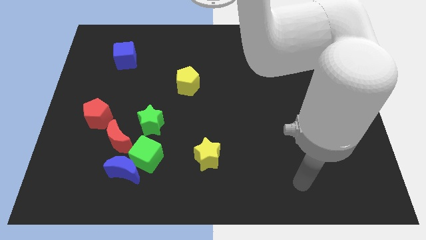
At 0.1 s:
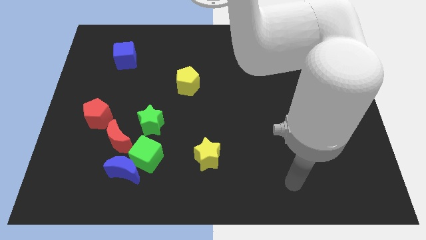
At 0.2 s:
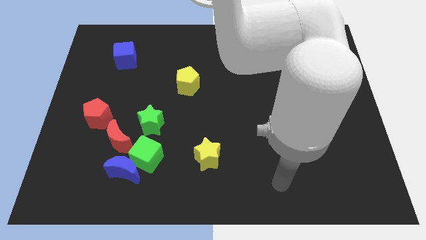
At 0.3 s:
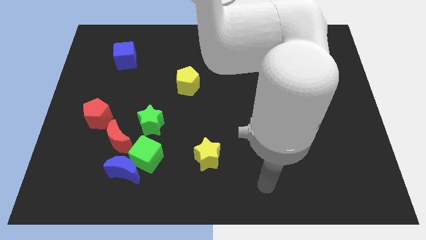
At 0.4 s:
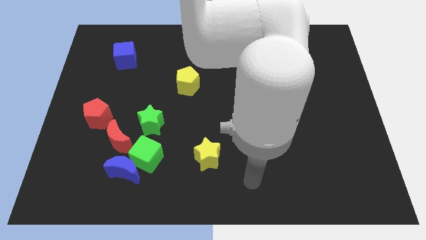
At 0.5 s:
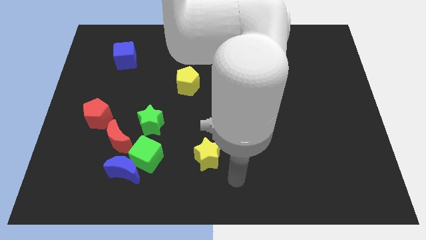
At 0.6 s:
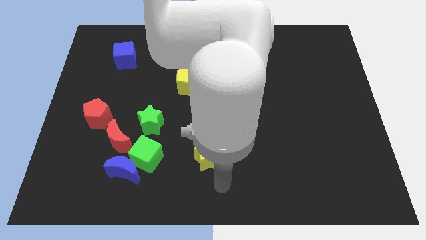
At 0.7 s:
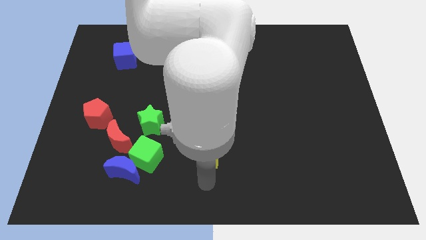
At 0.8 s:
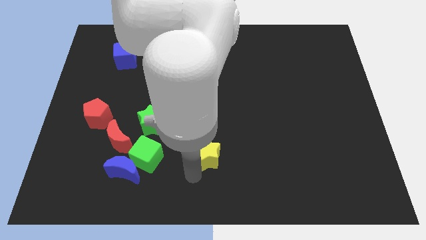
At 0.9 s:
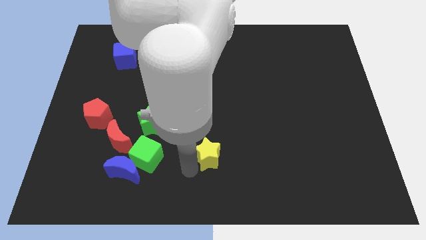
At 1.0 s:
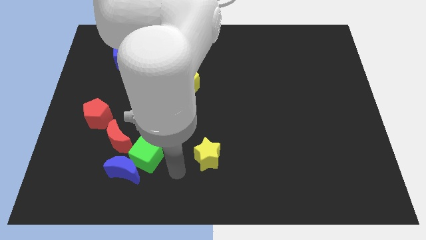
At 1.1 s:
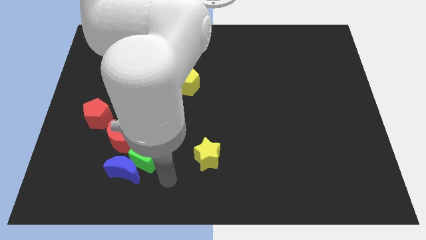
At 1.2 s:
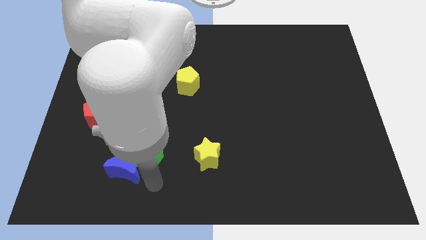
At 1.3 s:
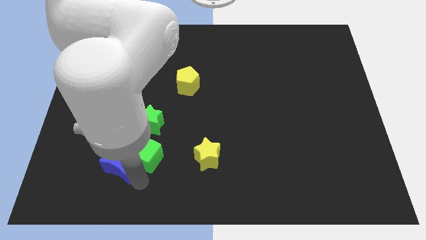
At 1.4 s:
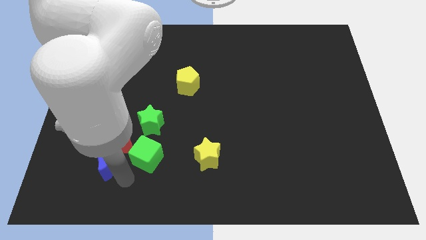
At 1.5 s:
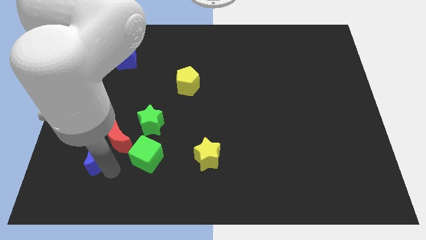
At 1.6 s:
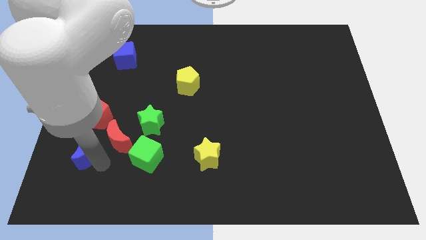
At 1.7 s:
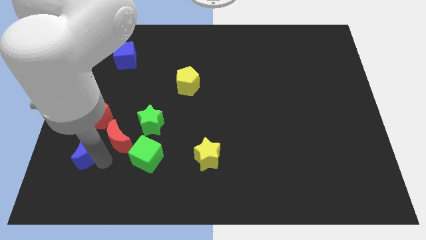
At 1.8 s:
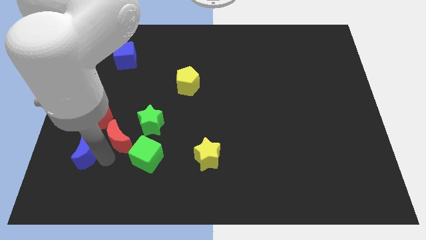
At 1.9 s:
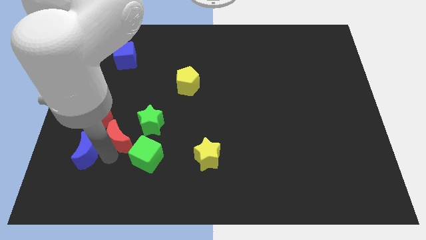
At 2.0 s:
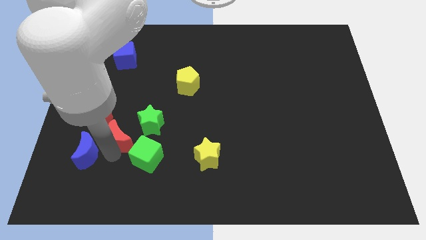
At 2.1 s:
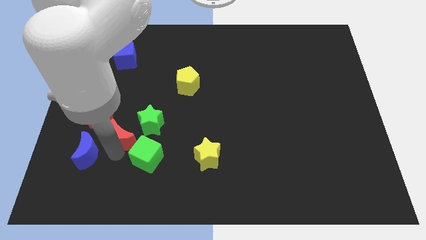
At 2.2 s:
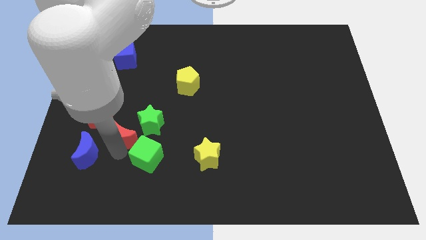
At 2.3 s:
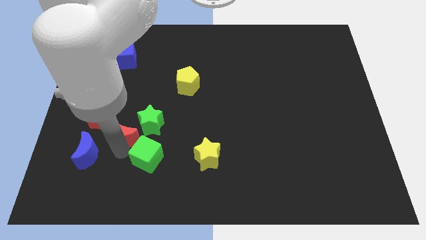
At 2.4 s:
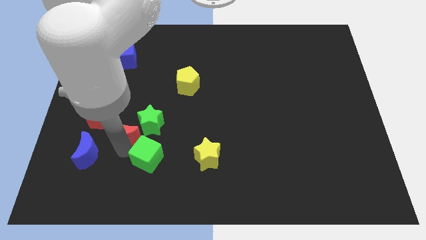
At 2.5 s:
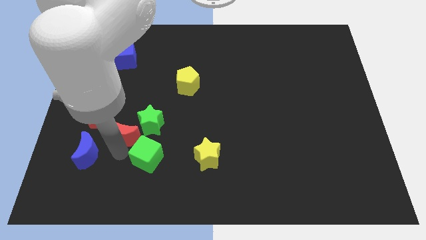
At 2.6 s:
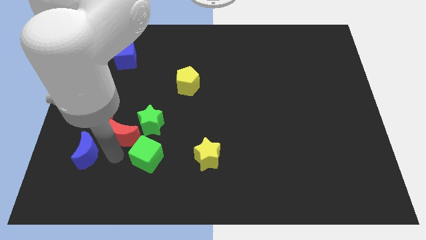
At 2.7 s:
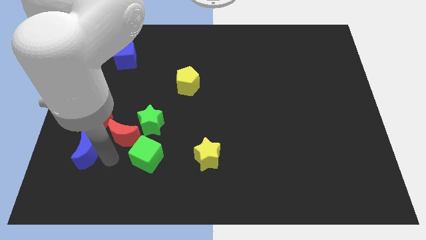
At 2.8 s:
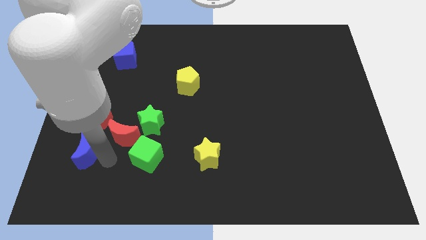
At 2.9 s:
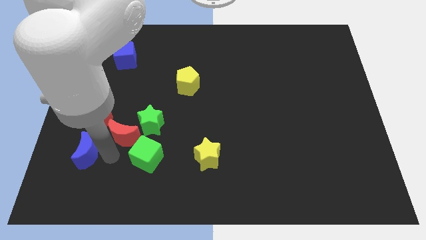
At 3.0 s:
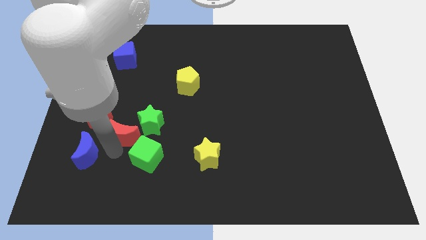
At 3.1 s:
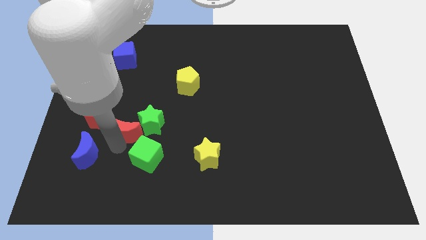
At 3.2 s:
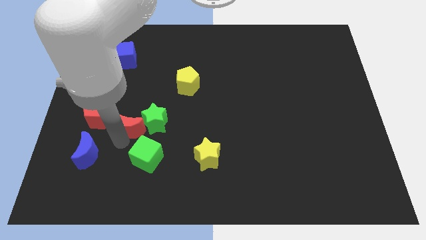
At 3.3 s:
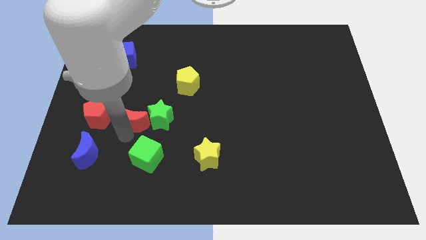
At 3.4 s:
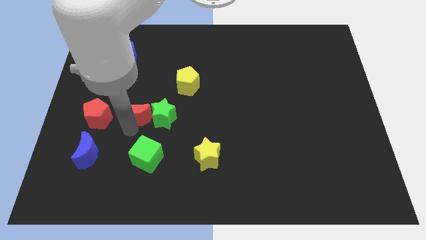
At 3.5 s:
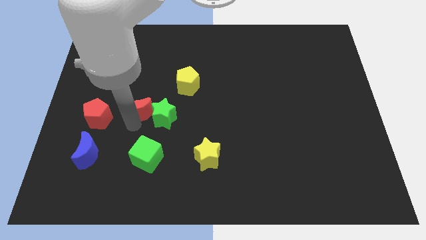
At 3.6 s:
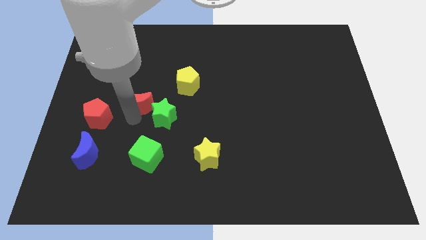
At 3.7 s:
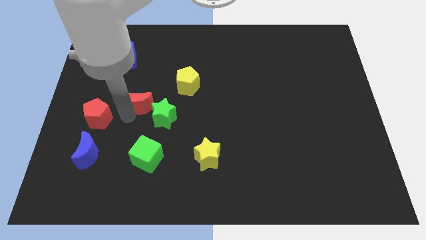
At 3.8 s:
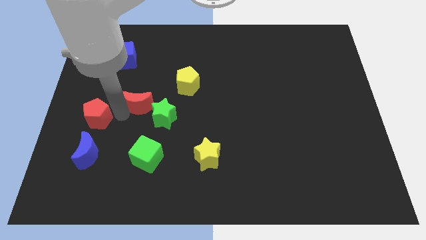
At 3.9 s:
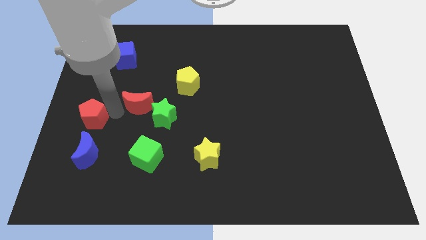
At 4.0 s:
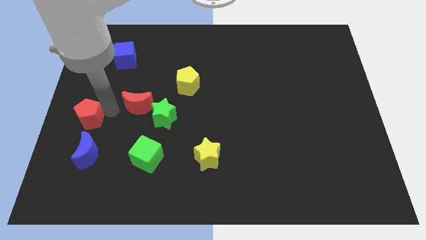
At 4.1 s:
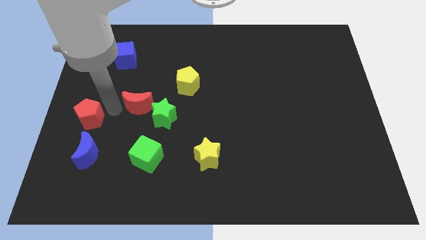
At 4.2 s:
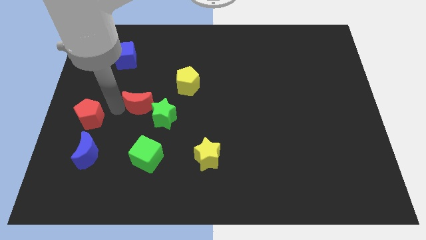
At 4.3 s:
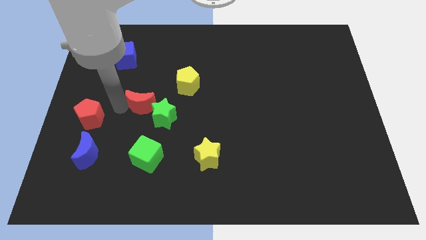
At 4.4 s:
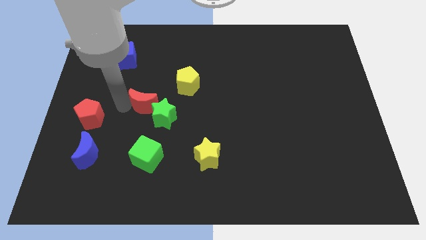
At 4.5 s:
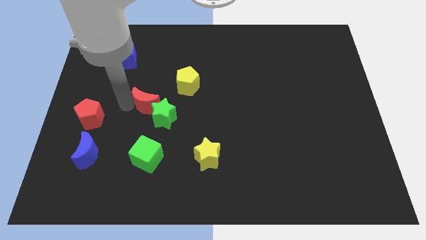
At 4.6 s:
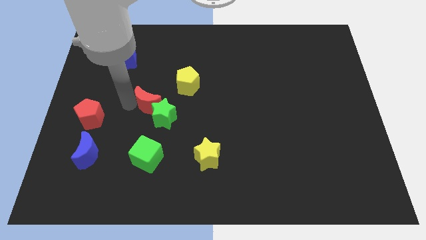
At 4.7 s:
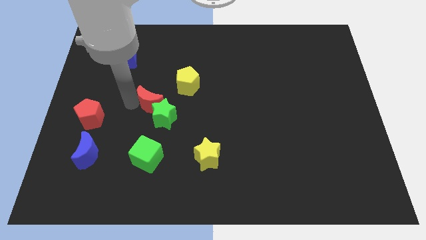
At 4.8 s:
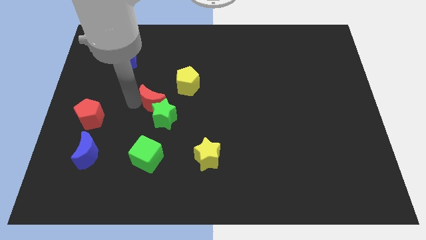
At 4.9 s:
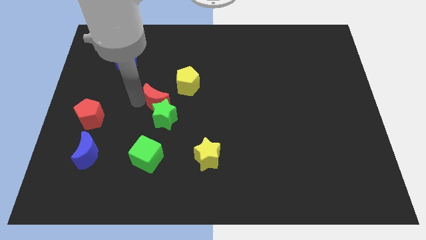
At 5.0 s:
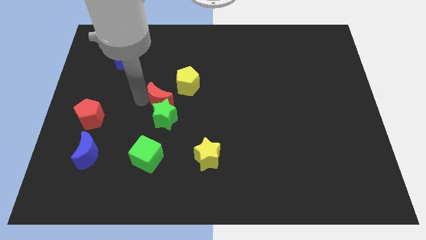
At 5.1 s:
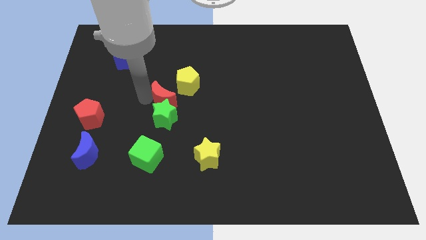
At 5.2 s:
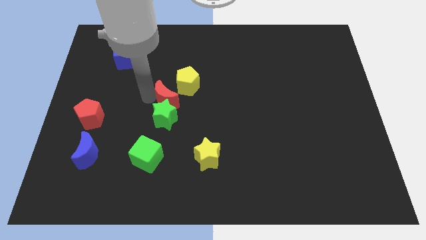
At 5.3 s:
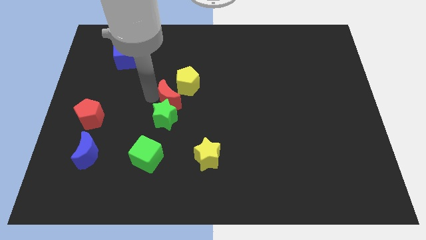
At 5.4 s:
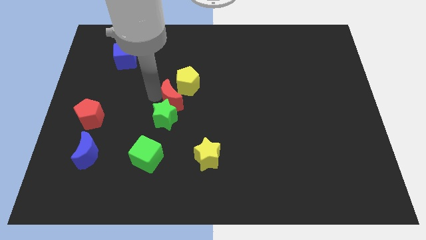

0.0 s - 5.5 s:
push the red moon next to the yellow pentagon

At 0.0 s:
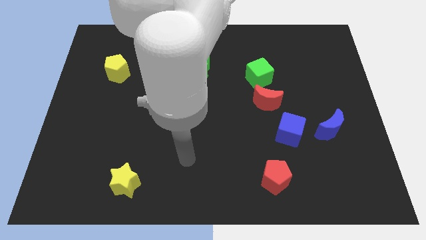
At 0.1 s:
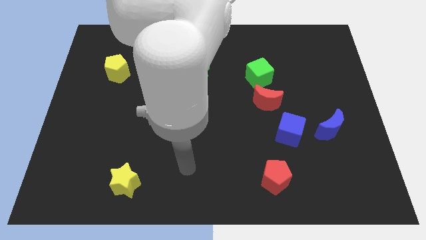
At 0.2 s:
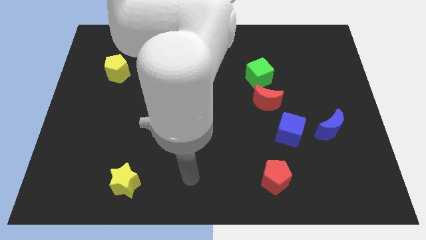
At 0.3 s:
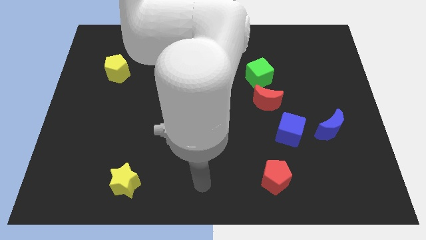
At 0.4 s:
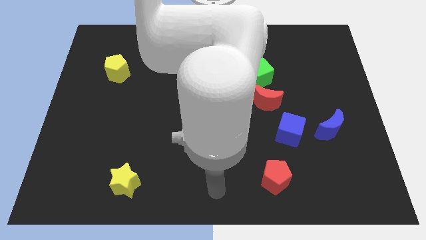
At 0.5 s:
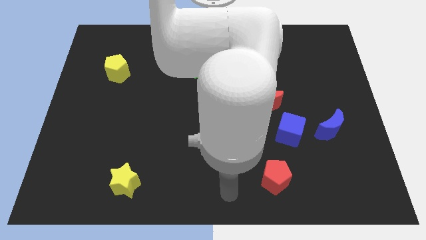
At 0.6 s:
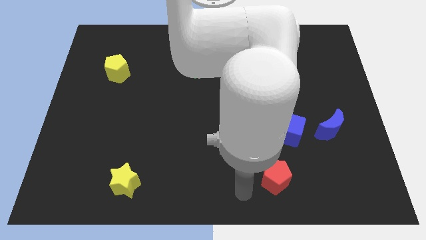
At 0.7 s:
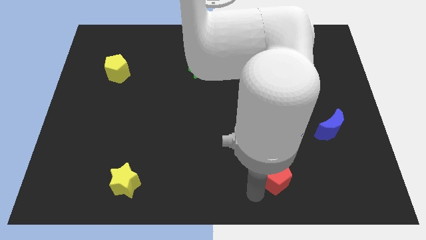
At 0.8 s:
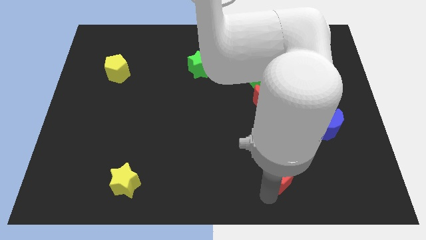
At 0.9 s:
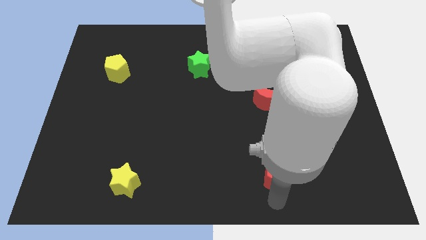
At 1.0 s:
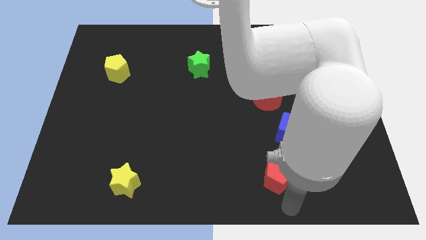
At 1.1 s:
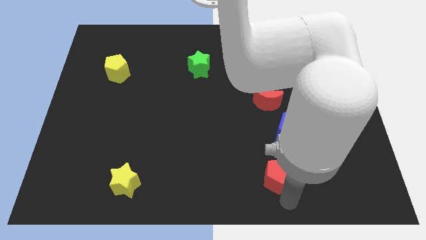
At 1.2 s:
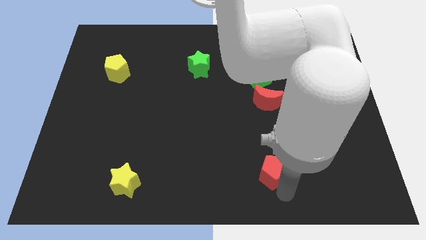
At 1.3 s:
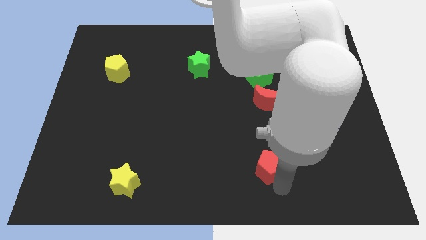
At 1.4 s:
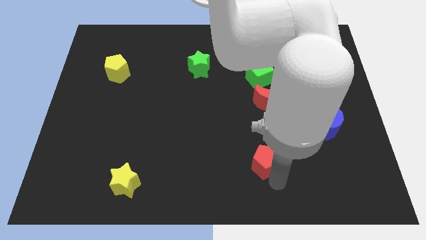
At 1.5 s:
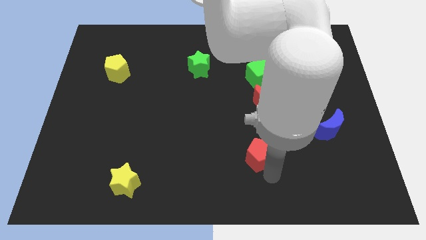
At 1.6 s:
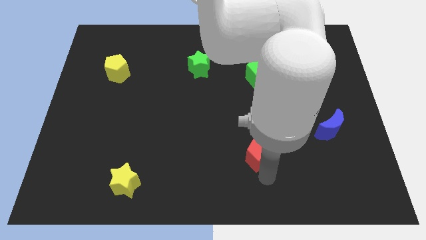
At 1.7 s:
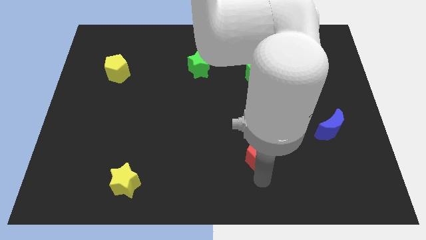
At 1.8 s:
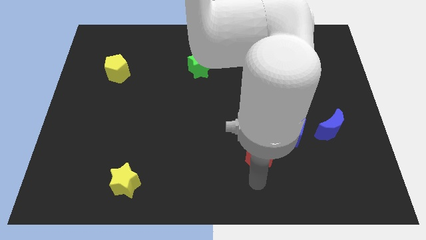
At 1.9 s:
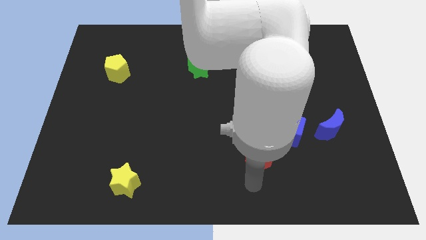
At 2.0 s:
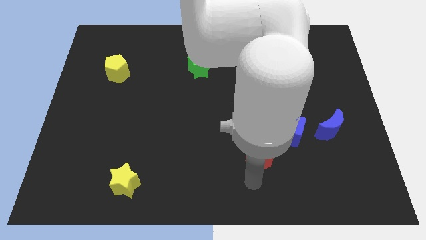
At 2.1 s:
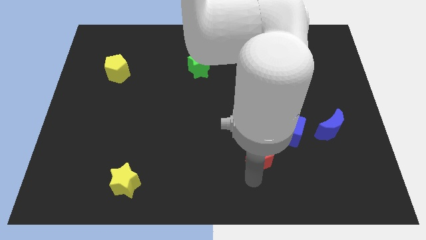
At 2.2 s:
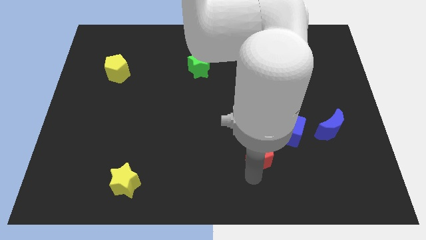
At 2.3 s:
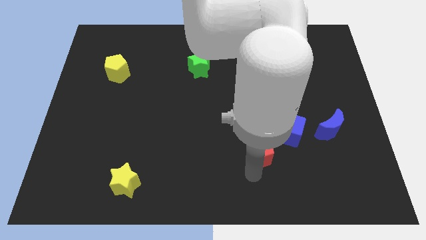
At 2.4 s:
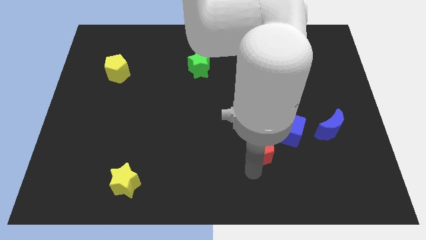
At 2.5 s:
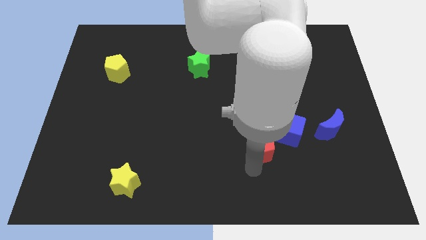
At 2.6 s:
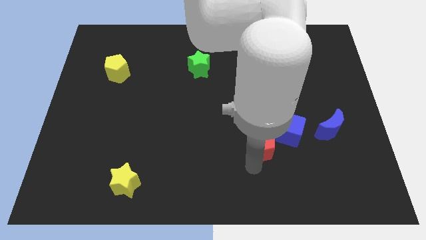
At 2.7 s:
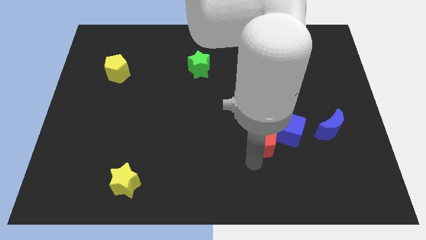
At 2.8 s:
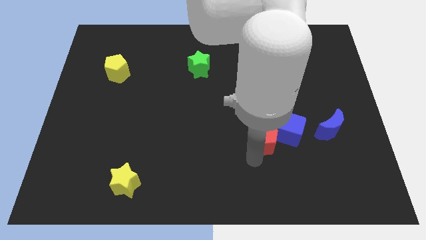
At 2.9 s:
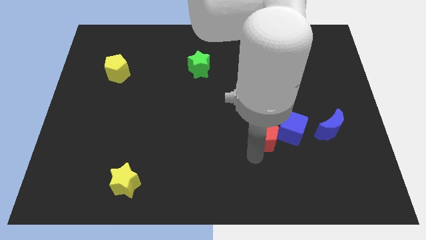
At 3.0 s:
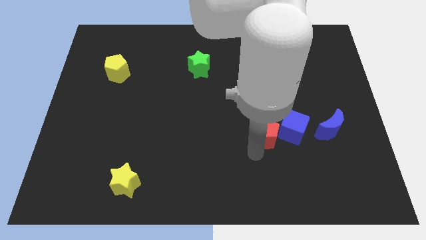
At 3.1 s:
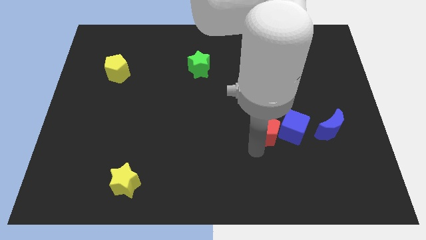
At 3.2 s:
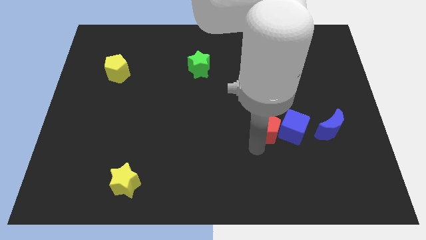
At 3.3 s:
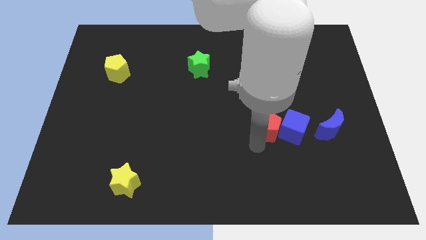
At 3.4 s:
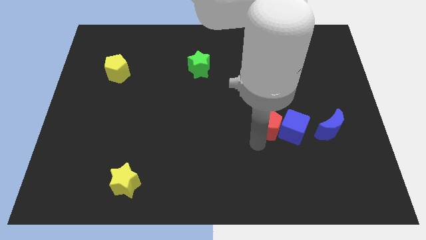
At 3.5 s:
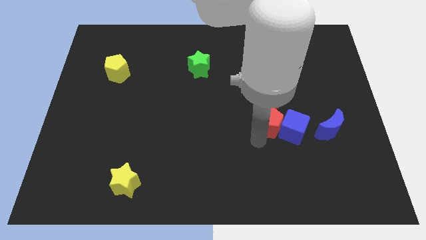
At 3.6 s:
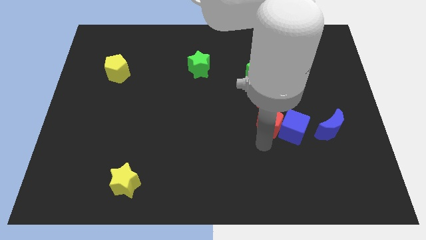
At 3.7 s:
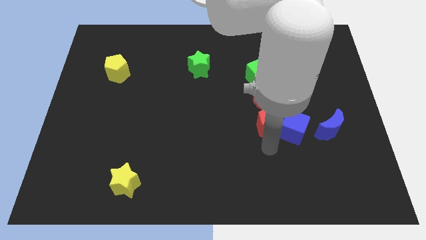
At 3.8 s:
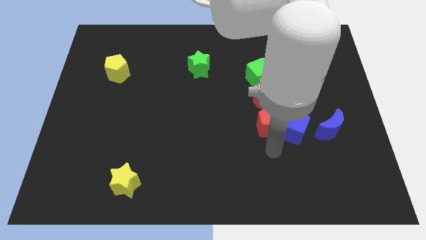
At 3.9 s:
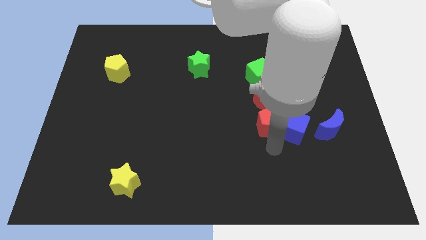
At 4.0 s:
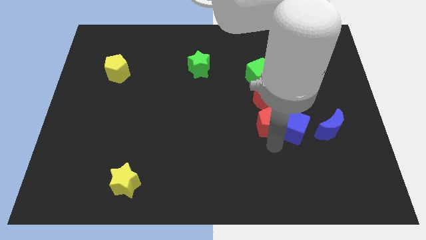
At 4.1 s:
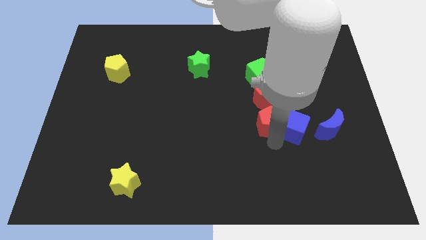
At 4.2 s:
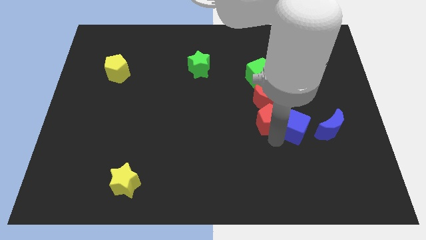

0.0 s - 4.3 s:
put the red pentagon next to the red moon
